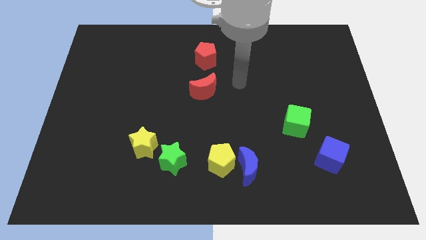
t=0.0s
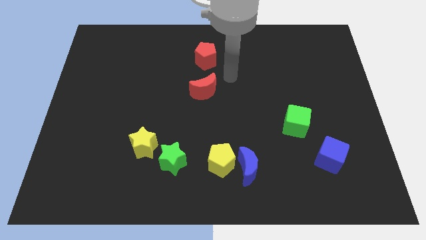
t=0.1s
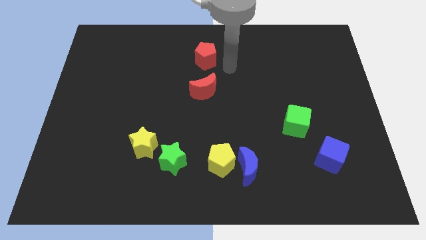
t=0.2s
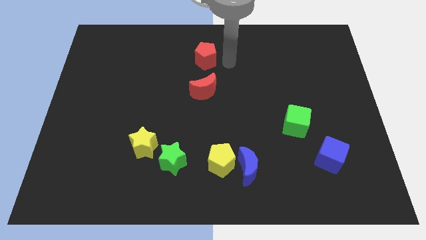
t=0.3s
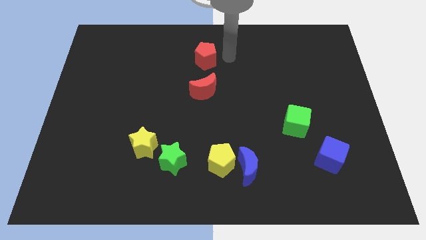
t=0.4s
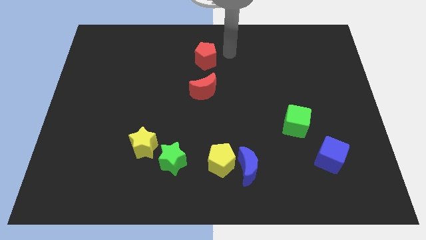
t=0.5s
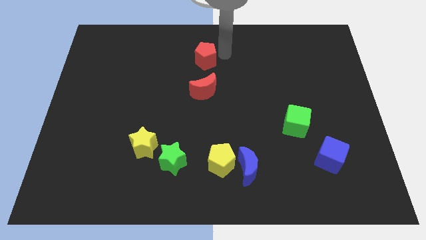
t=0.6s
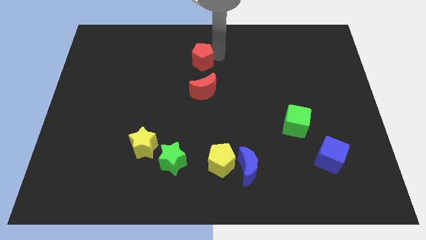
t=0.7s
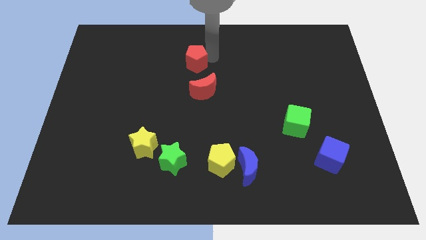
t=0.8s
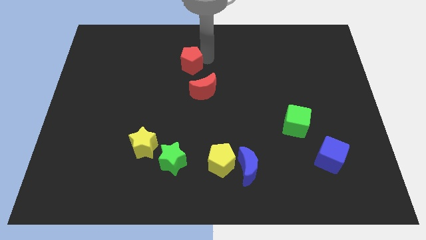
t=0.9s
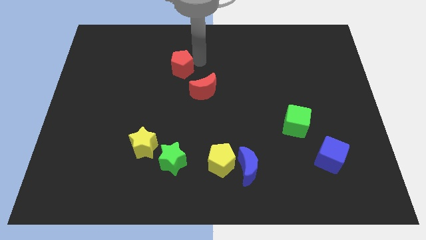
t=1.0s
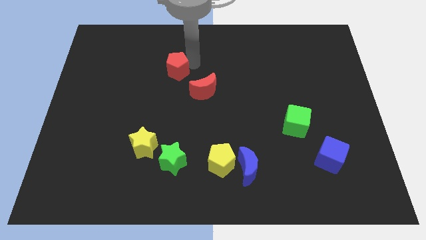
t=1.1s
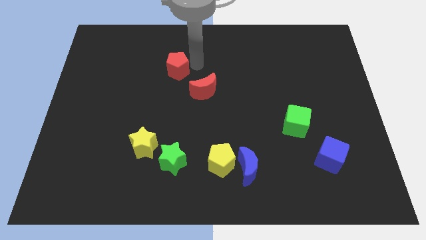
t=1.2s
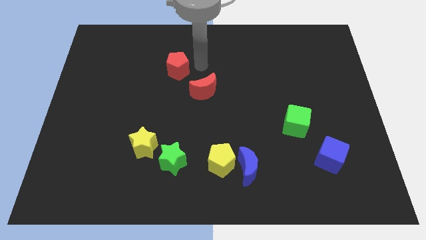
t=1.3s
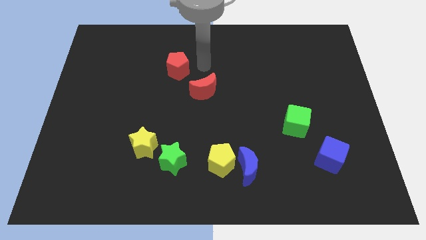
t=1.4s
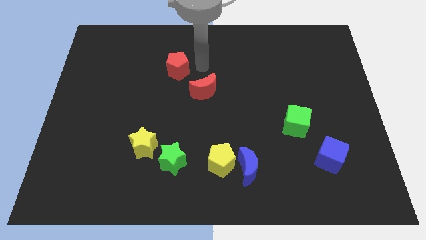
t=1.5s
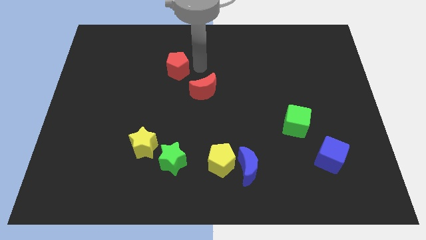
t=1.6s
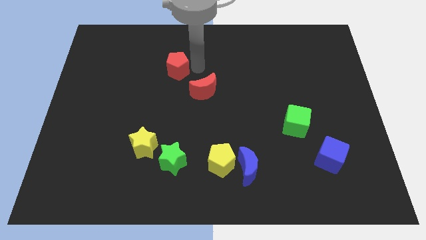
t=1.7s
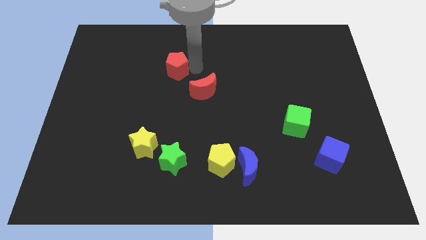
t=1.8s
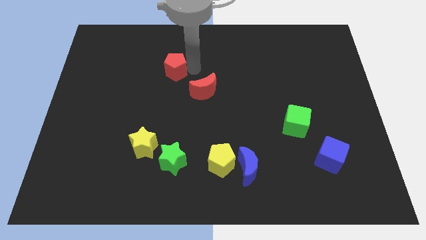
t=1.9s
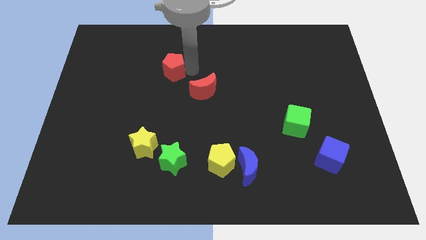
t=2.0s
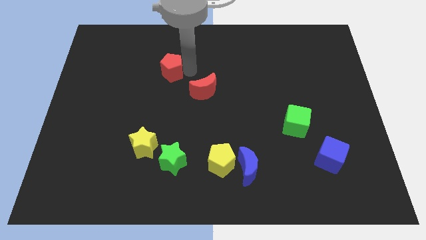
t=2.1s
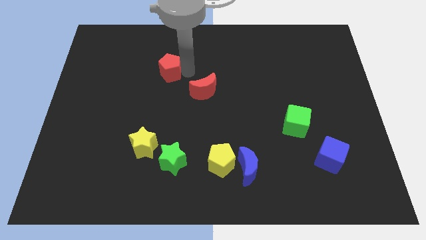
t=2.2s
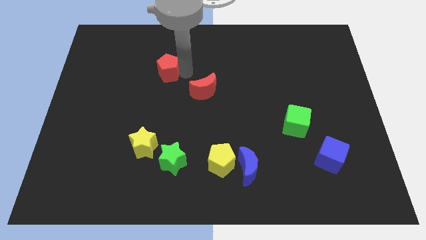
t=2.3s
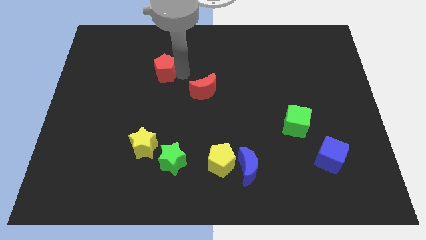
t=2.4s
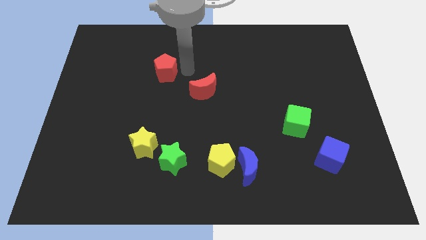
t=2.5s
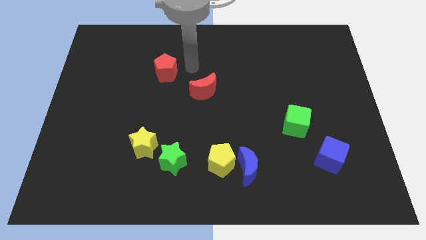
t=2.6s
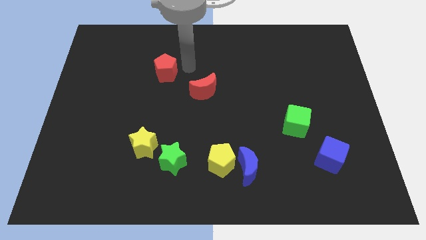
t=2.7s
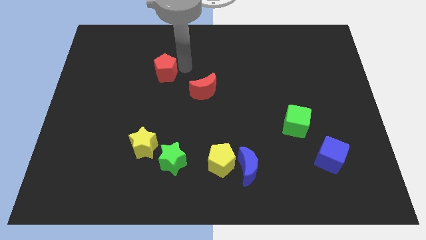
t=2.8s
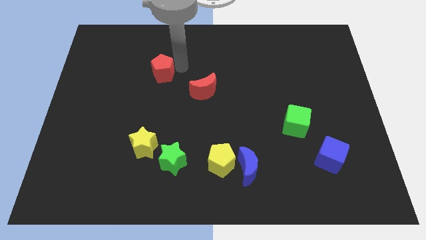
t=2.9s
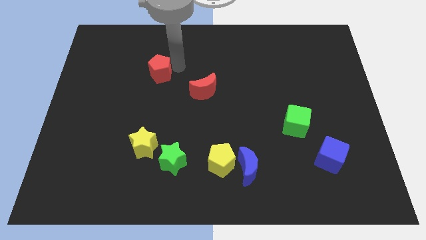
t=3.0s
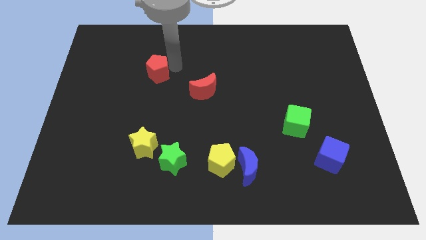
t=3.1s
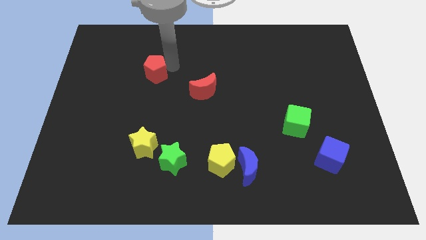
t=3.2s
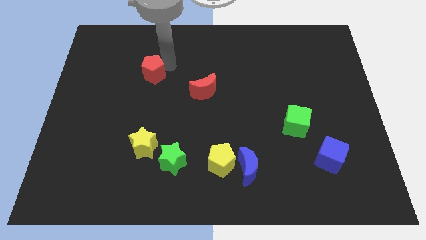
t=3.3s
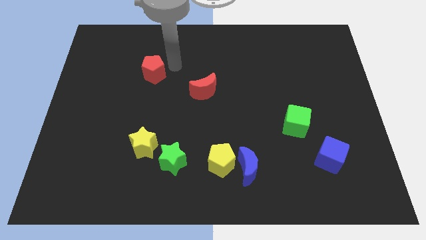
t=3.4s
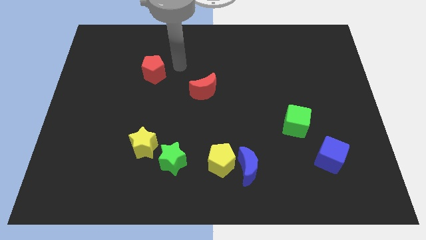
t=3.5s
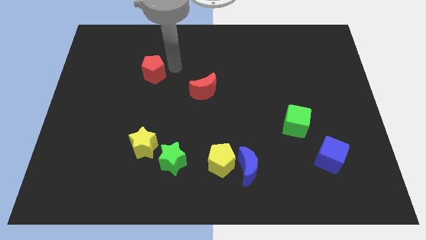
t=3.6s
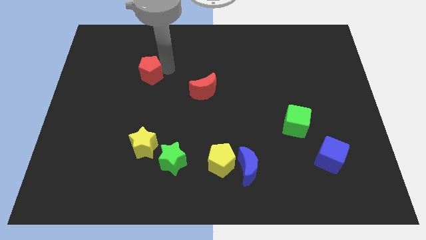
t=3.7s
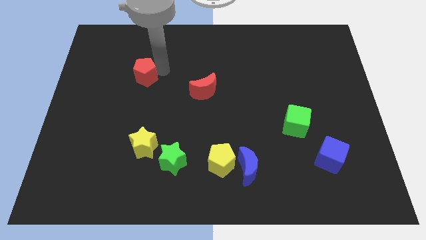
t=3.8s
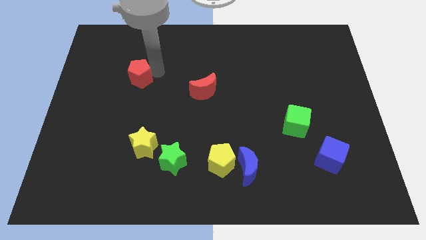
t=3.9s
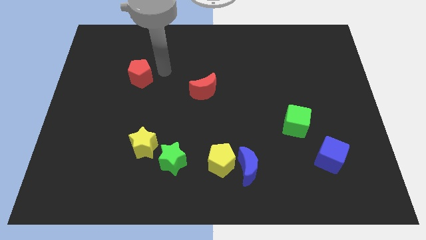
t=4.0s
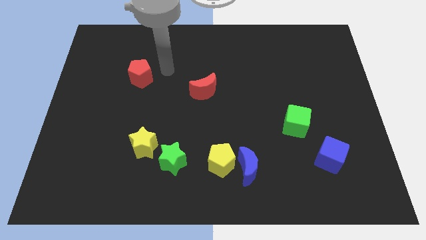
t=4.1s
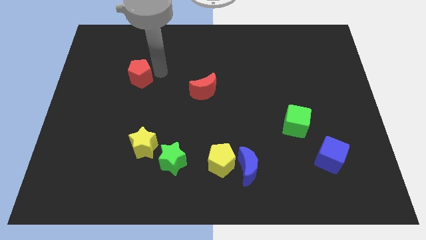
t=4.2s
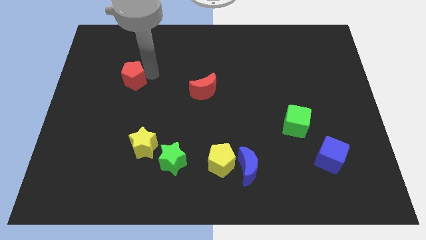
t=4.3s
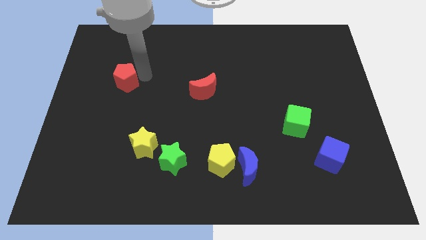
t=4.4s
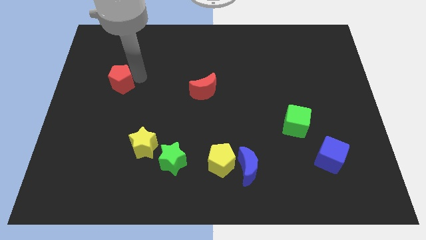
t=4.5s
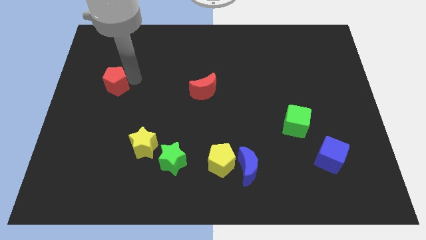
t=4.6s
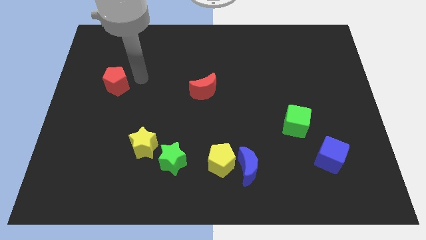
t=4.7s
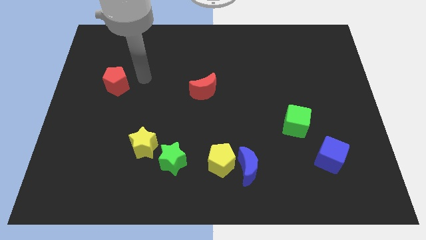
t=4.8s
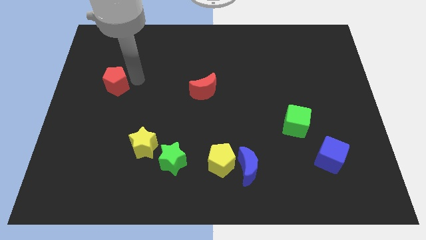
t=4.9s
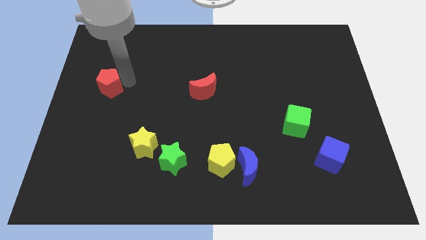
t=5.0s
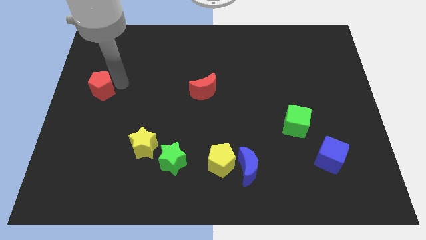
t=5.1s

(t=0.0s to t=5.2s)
push the red pentagon to the left side
